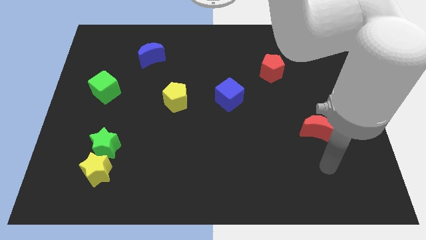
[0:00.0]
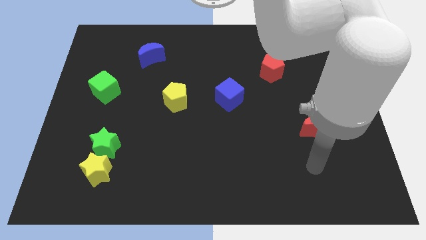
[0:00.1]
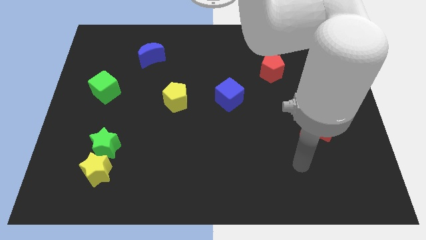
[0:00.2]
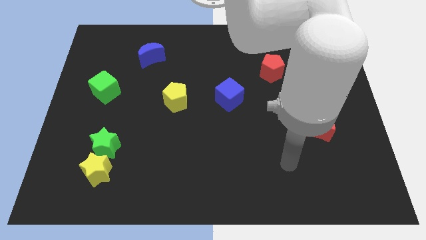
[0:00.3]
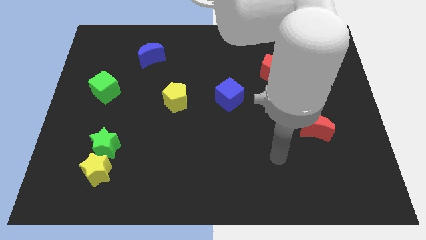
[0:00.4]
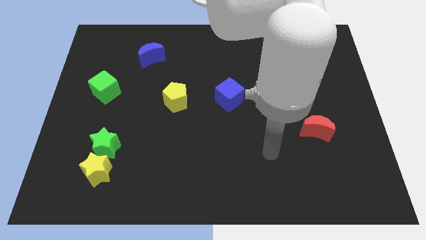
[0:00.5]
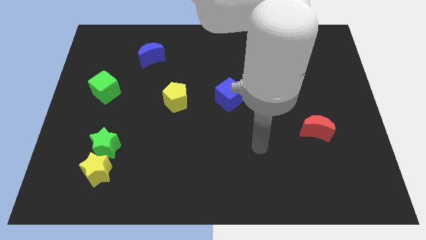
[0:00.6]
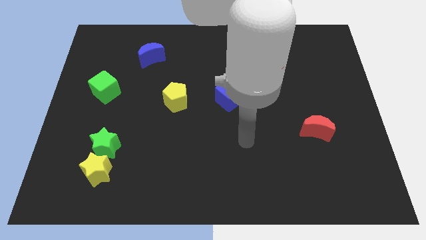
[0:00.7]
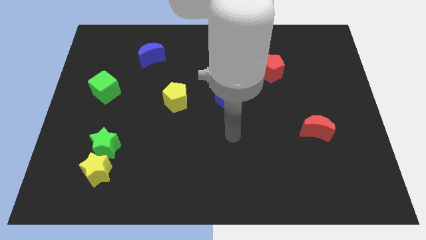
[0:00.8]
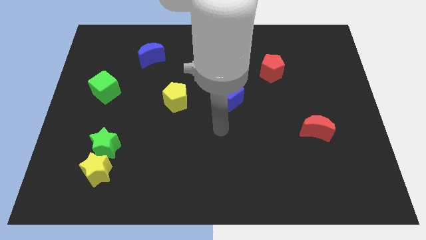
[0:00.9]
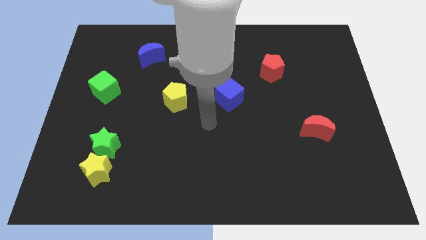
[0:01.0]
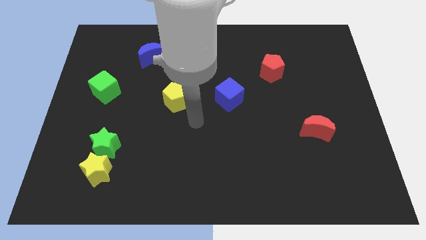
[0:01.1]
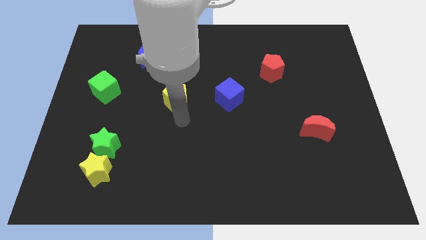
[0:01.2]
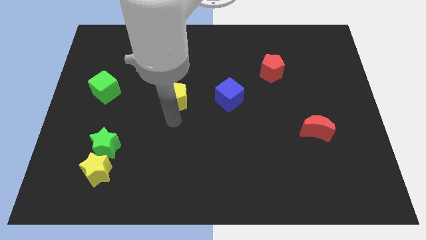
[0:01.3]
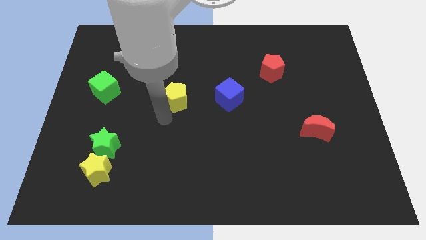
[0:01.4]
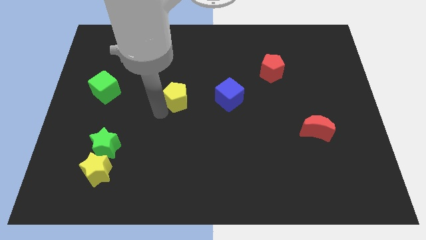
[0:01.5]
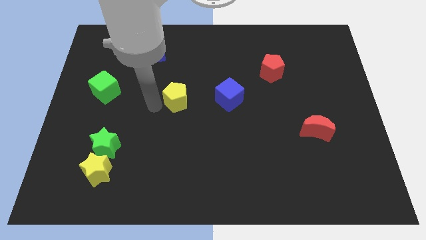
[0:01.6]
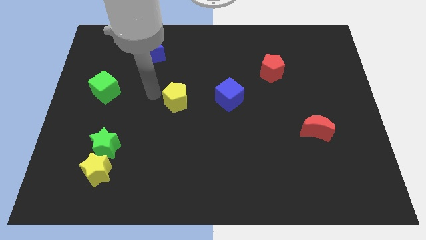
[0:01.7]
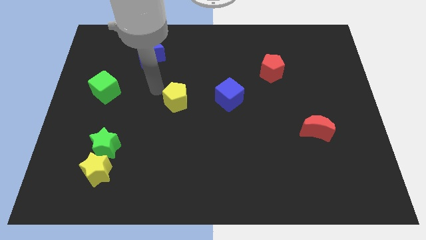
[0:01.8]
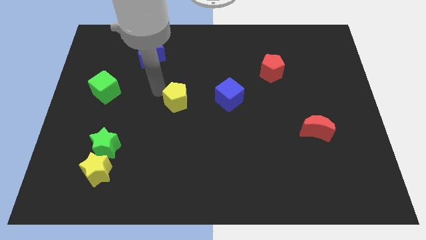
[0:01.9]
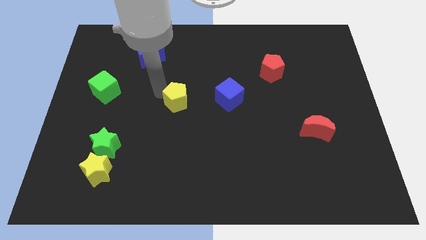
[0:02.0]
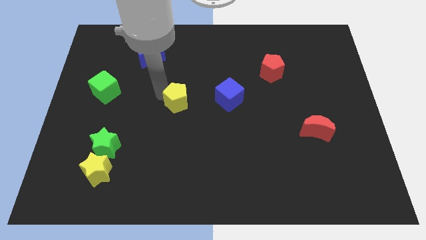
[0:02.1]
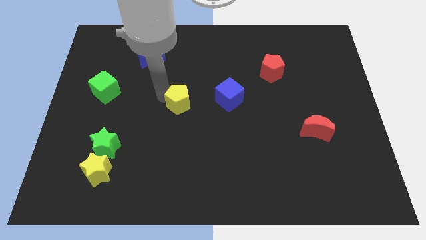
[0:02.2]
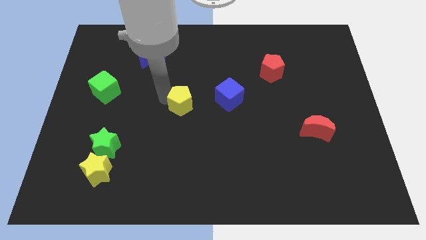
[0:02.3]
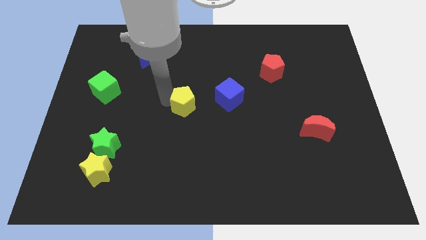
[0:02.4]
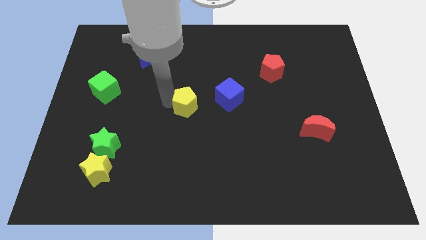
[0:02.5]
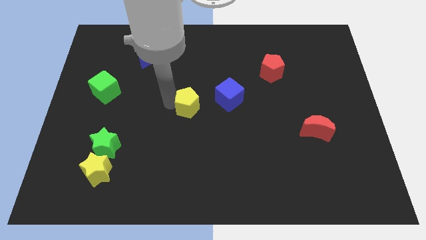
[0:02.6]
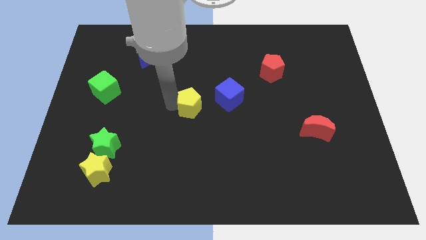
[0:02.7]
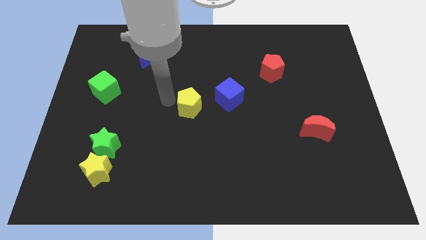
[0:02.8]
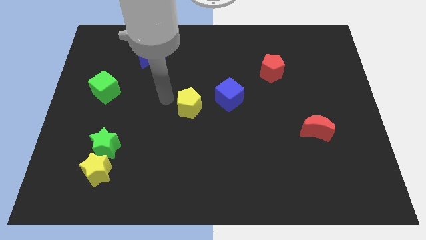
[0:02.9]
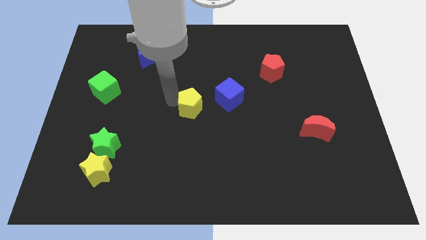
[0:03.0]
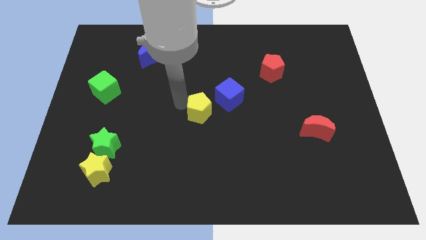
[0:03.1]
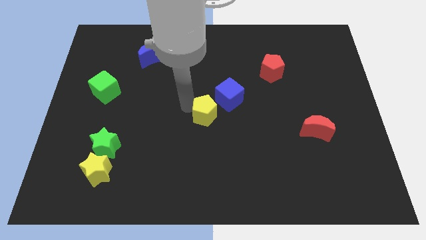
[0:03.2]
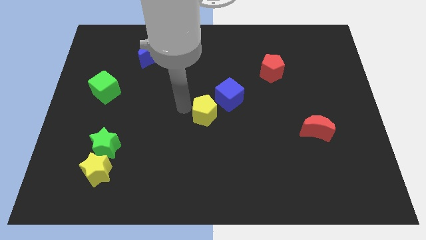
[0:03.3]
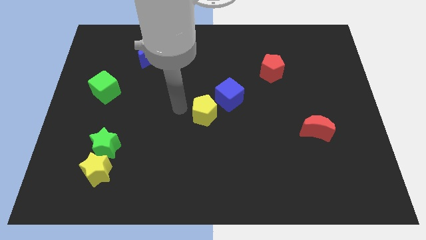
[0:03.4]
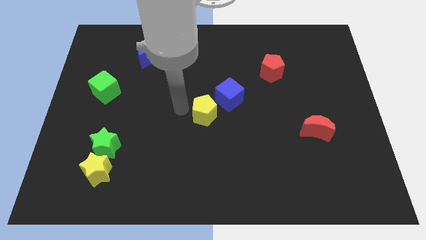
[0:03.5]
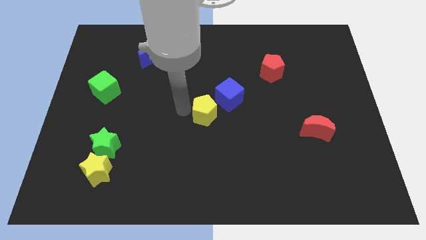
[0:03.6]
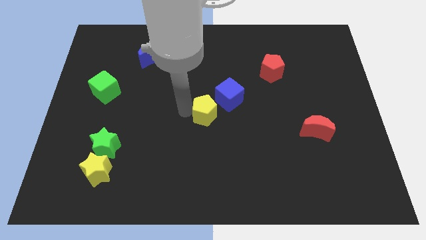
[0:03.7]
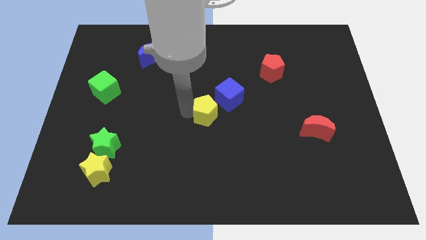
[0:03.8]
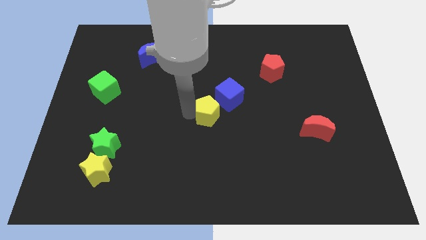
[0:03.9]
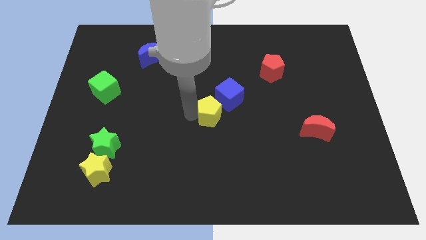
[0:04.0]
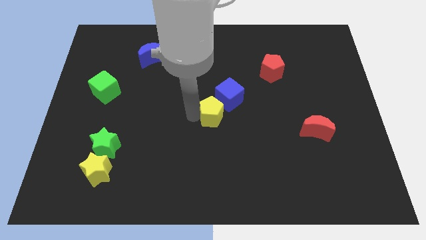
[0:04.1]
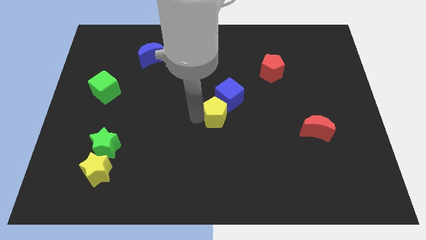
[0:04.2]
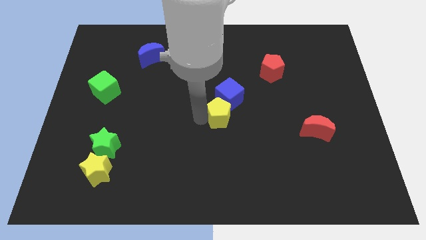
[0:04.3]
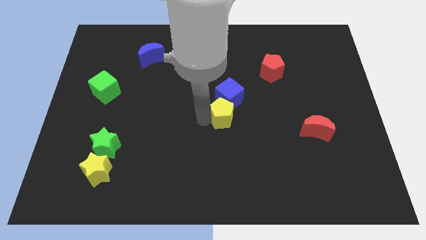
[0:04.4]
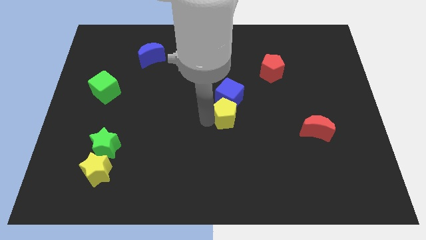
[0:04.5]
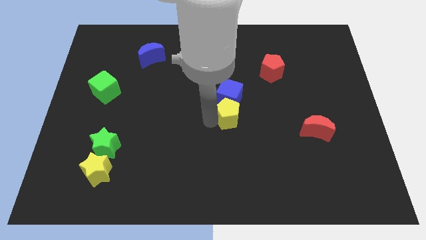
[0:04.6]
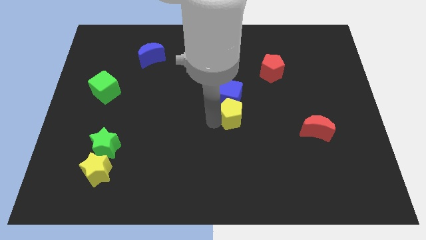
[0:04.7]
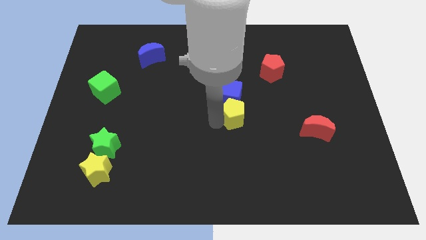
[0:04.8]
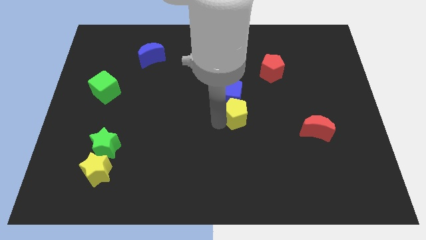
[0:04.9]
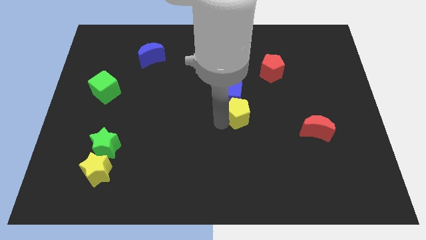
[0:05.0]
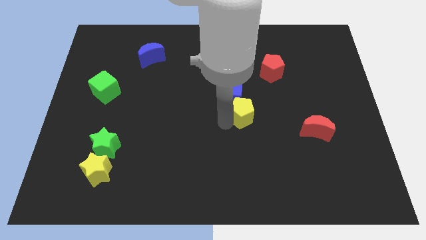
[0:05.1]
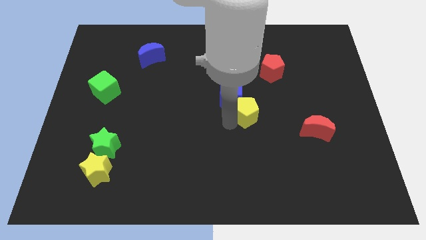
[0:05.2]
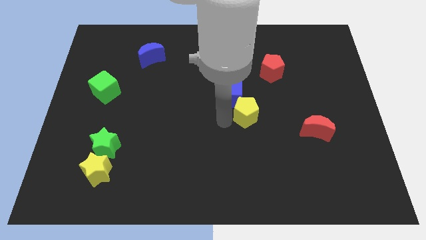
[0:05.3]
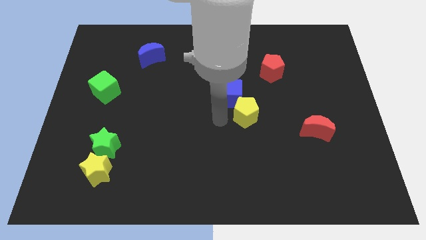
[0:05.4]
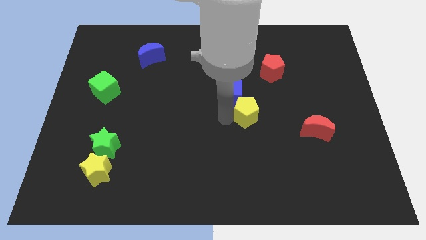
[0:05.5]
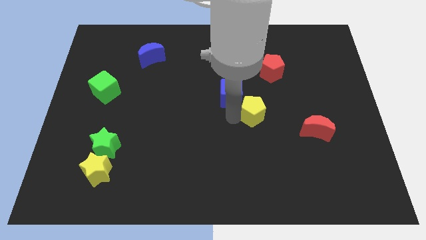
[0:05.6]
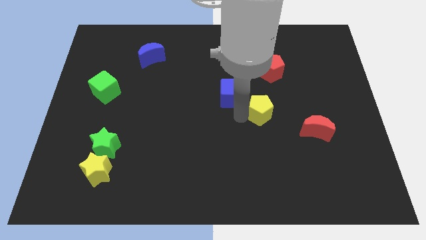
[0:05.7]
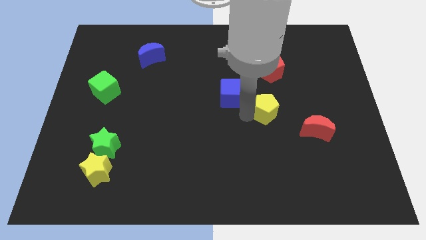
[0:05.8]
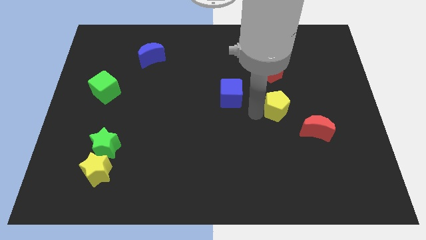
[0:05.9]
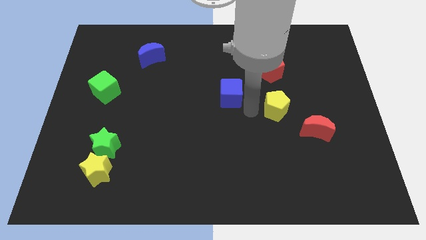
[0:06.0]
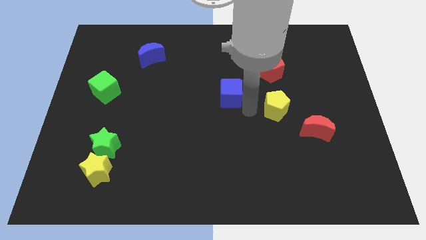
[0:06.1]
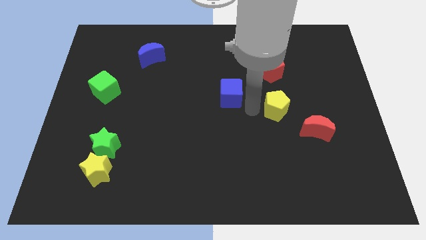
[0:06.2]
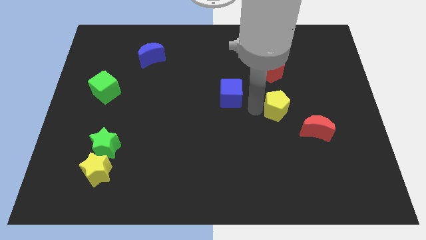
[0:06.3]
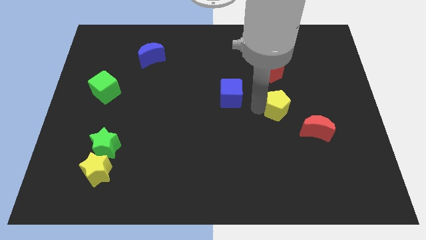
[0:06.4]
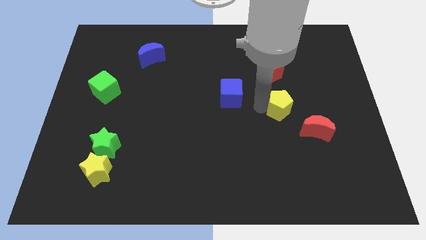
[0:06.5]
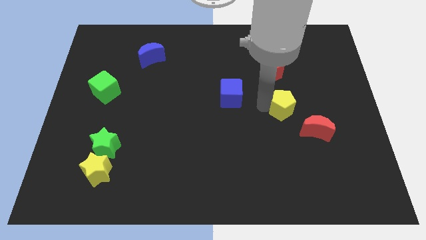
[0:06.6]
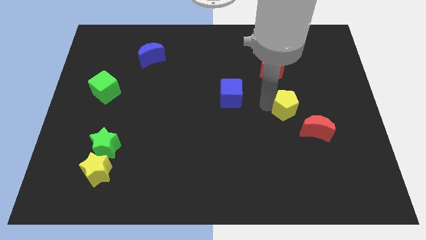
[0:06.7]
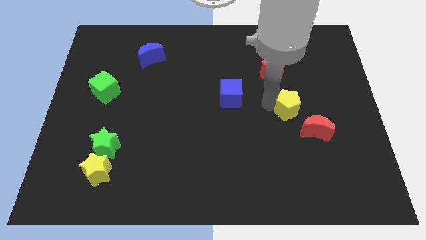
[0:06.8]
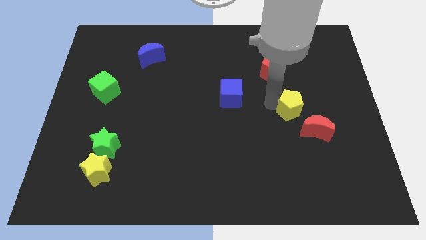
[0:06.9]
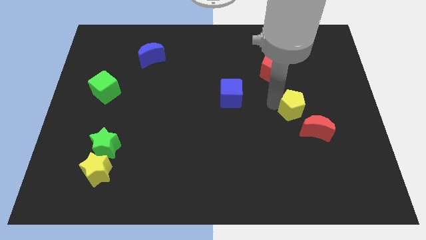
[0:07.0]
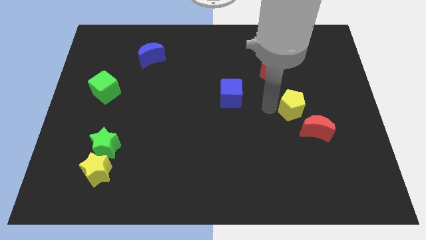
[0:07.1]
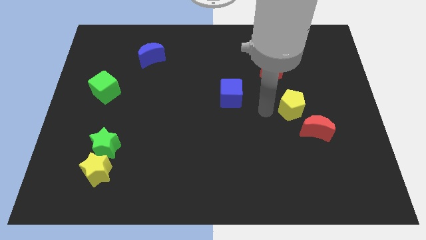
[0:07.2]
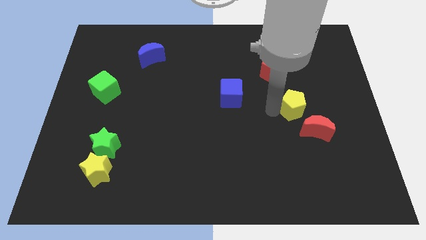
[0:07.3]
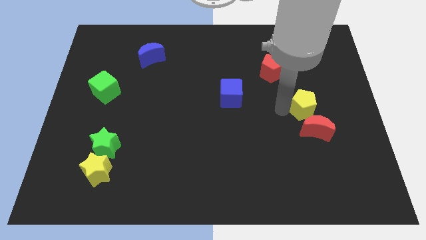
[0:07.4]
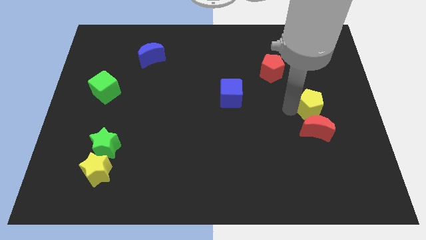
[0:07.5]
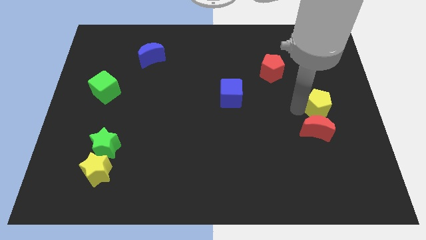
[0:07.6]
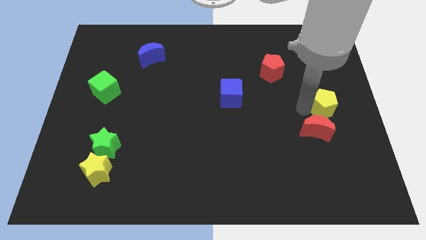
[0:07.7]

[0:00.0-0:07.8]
move the yellow pentagon to the right side
